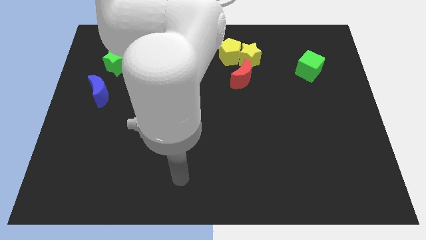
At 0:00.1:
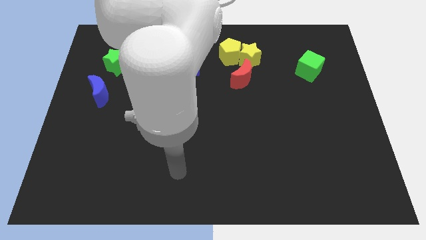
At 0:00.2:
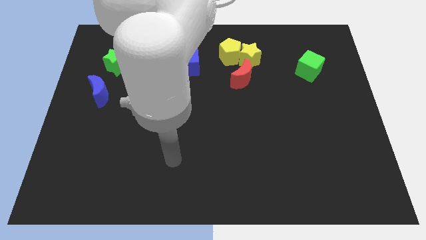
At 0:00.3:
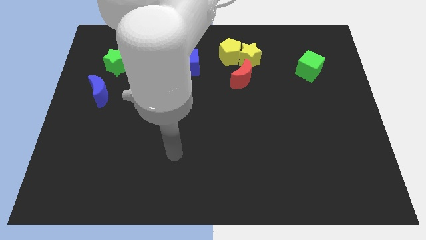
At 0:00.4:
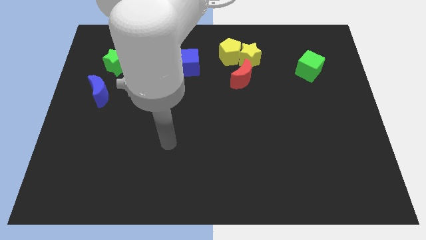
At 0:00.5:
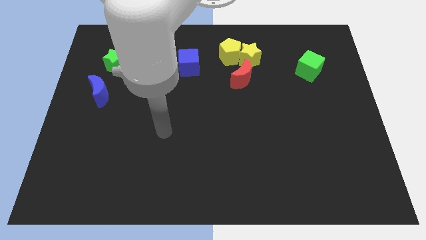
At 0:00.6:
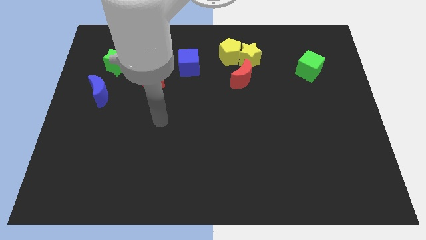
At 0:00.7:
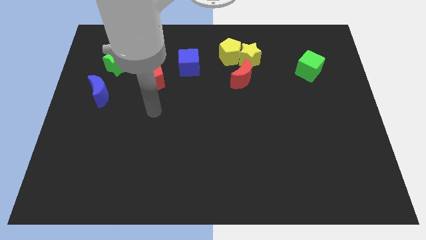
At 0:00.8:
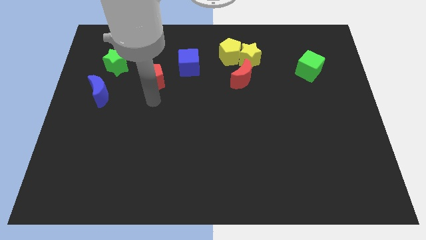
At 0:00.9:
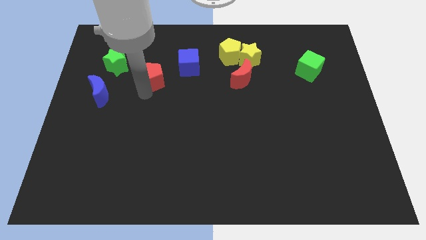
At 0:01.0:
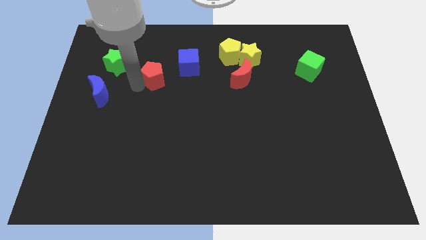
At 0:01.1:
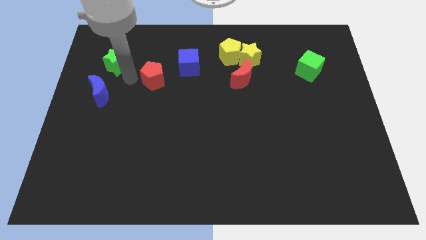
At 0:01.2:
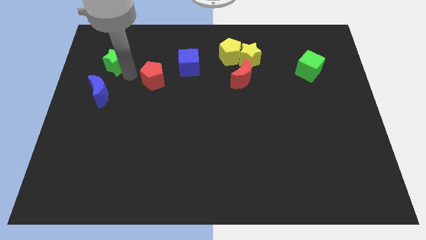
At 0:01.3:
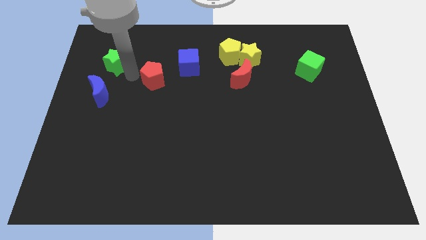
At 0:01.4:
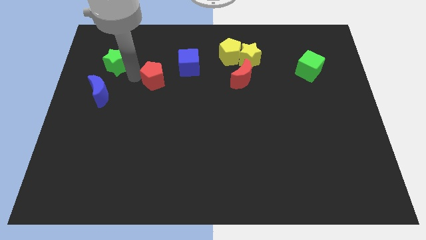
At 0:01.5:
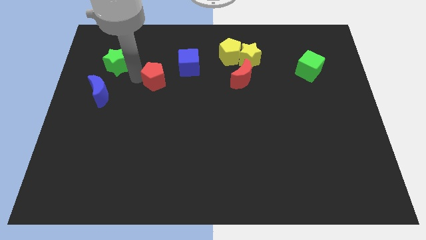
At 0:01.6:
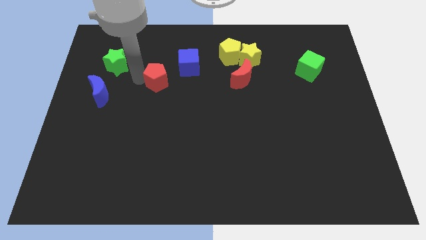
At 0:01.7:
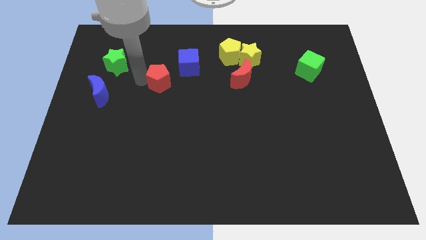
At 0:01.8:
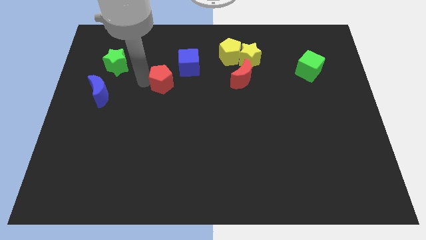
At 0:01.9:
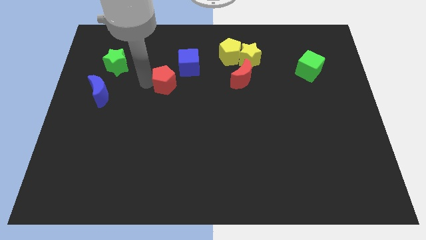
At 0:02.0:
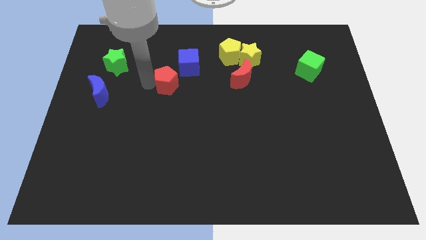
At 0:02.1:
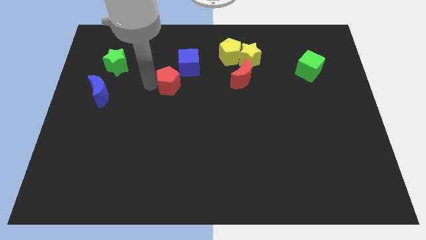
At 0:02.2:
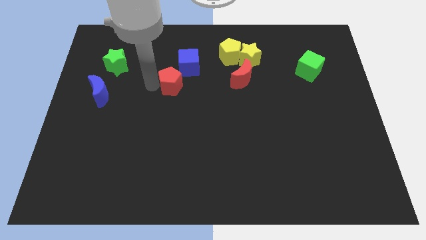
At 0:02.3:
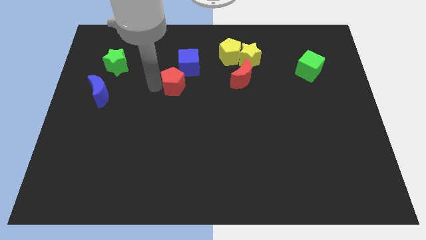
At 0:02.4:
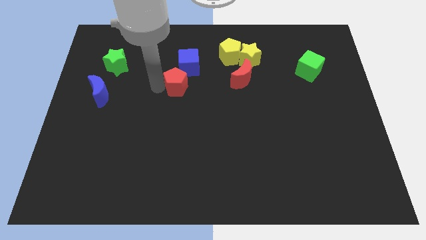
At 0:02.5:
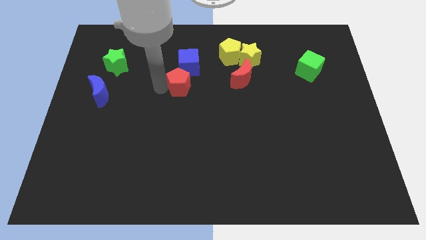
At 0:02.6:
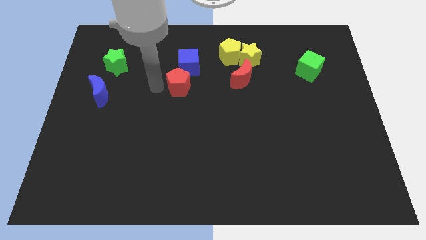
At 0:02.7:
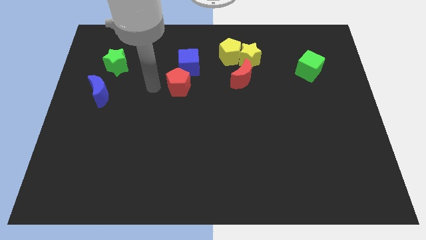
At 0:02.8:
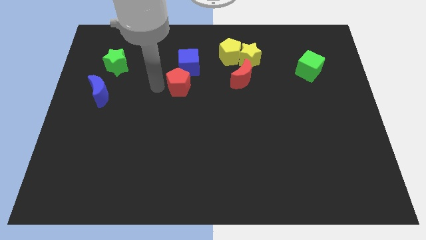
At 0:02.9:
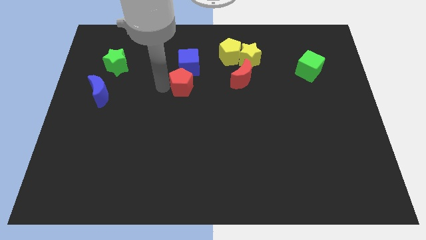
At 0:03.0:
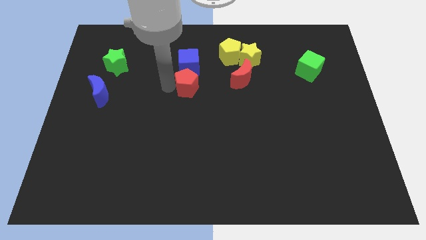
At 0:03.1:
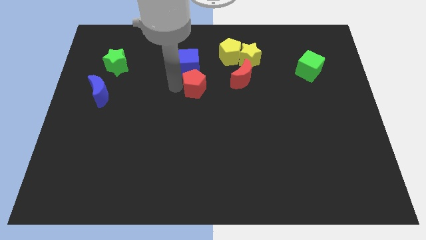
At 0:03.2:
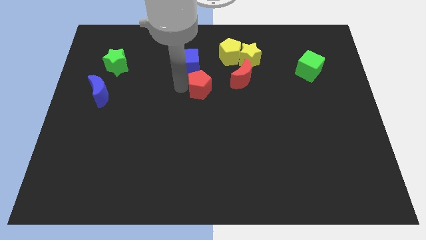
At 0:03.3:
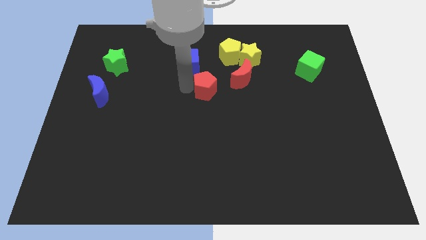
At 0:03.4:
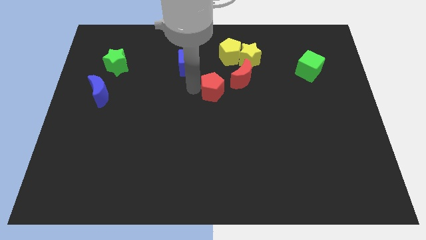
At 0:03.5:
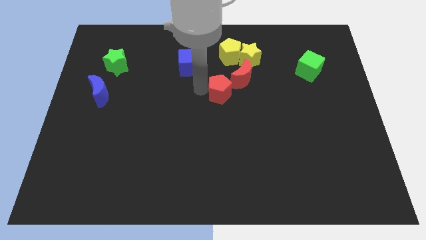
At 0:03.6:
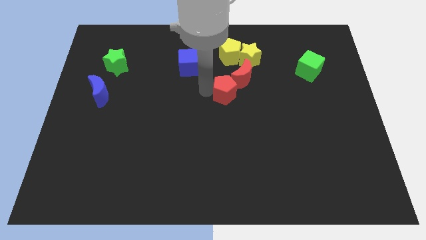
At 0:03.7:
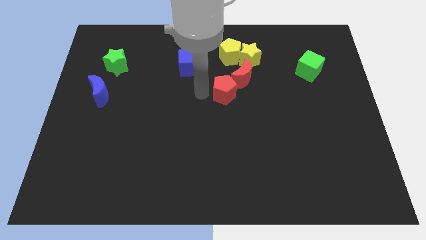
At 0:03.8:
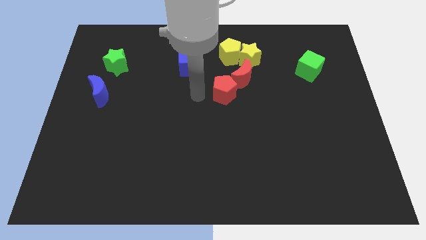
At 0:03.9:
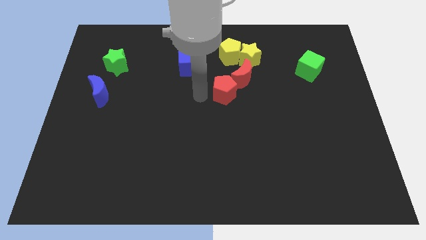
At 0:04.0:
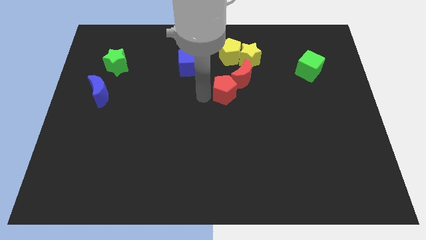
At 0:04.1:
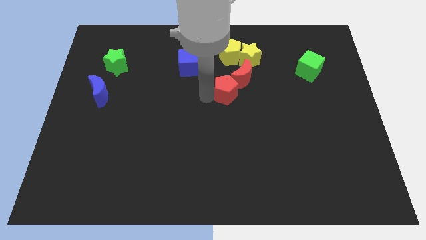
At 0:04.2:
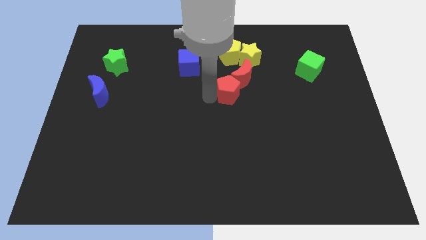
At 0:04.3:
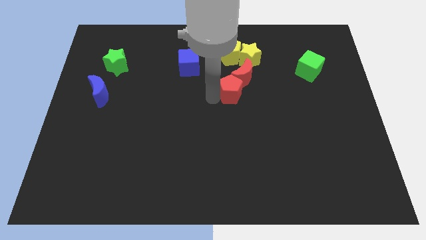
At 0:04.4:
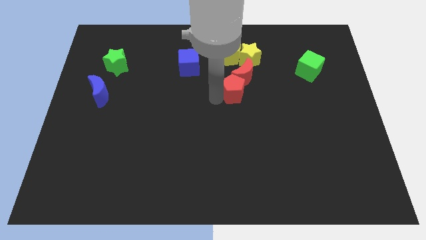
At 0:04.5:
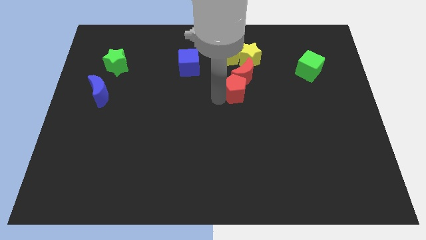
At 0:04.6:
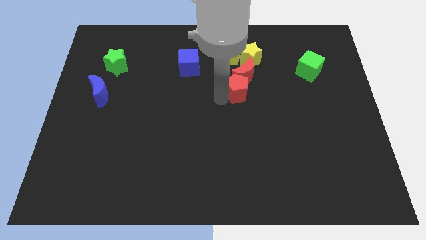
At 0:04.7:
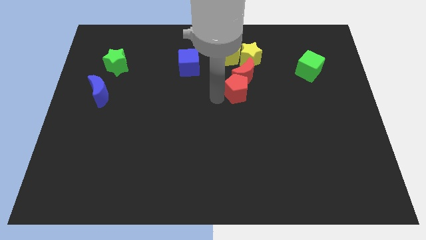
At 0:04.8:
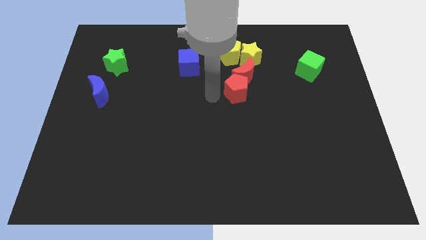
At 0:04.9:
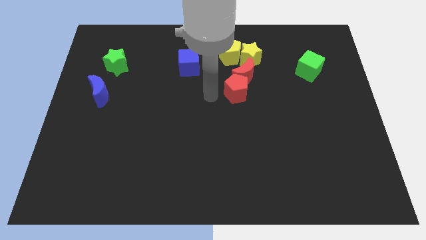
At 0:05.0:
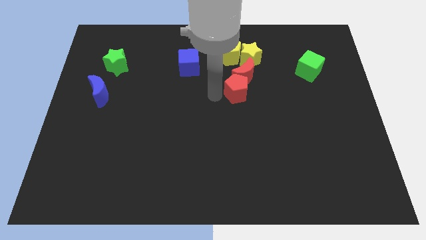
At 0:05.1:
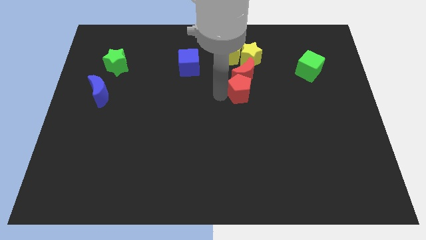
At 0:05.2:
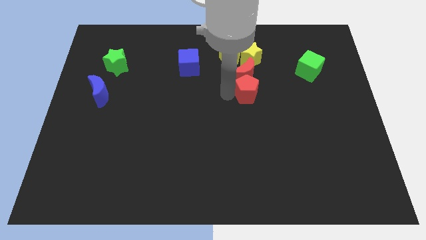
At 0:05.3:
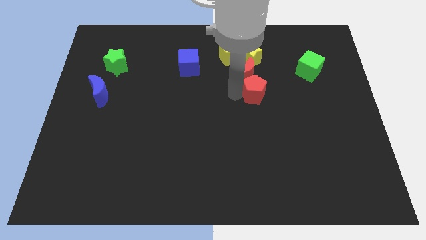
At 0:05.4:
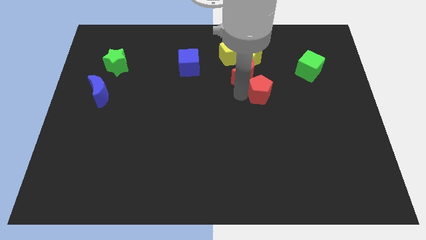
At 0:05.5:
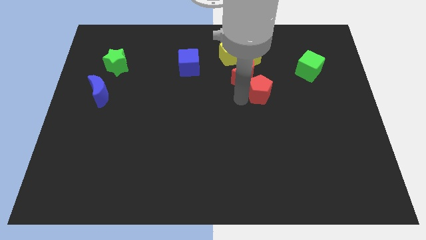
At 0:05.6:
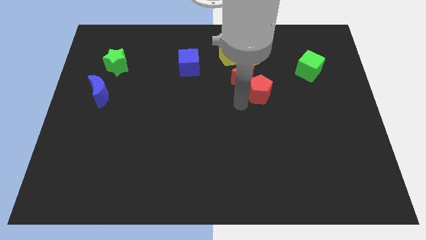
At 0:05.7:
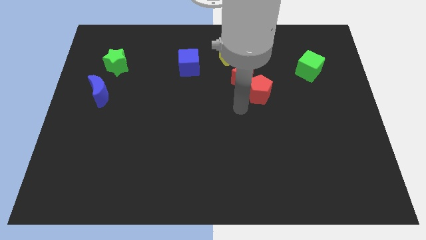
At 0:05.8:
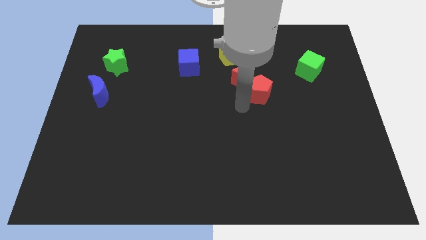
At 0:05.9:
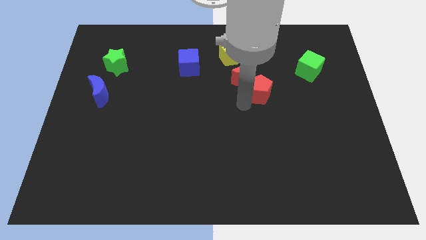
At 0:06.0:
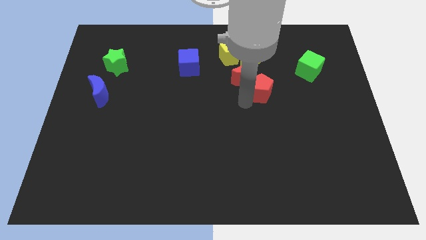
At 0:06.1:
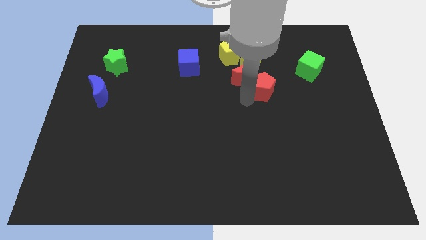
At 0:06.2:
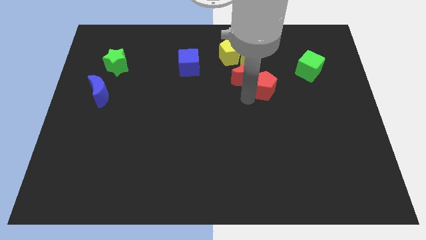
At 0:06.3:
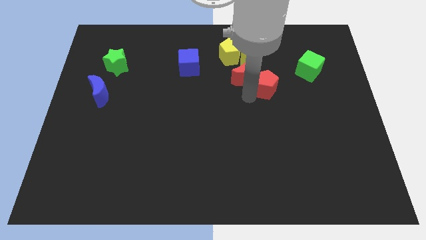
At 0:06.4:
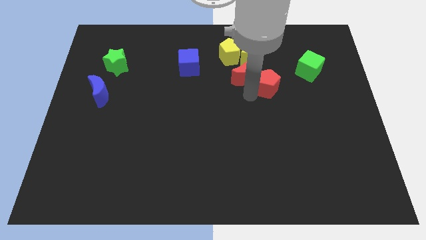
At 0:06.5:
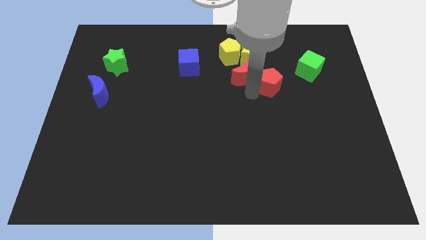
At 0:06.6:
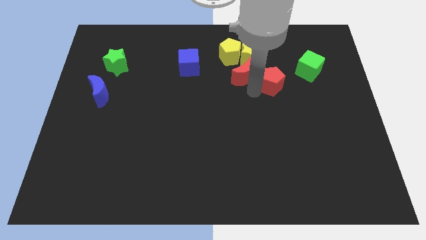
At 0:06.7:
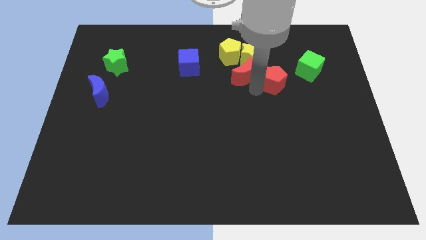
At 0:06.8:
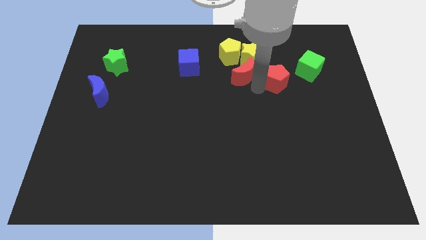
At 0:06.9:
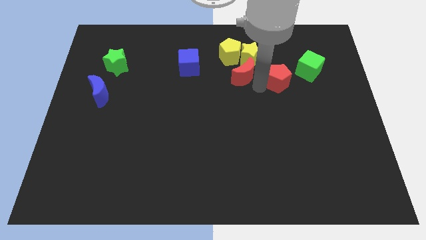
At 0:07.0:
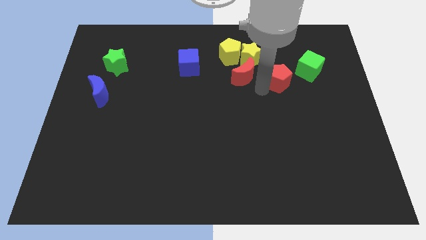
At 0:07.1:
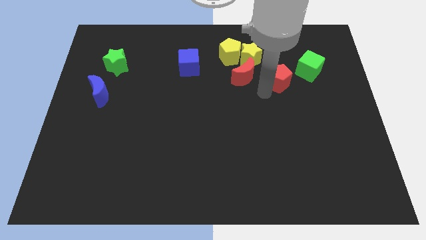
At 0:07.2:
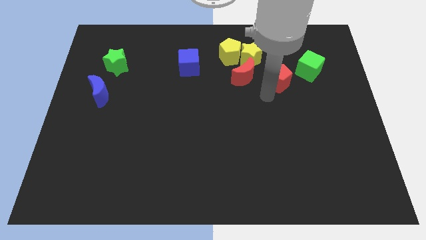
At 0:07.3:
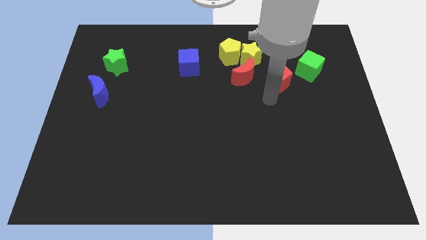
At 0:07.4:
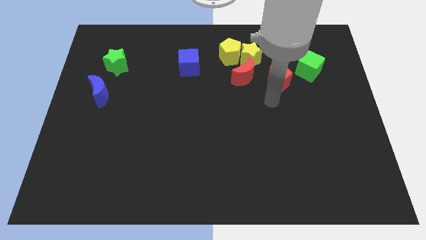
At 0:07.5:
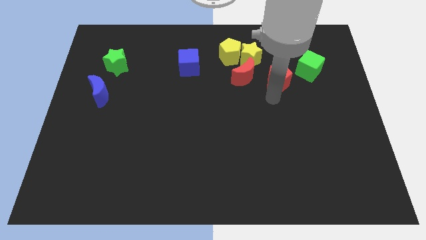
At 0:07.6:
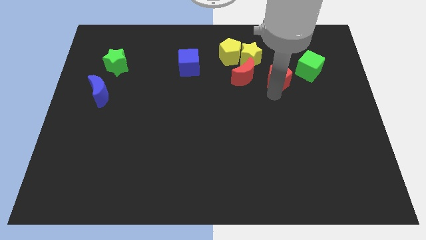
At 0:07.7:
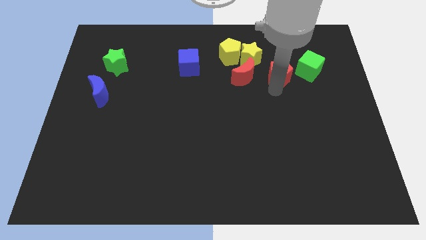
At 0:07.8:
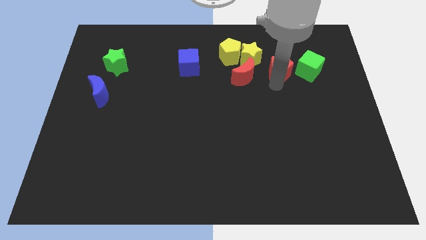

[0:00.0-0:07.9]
move the red pentagon to the right side of the yellow star
